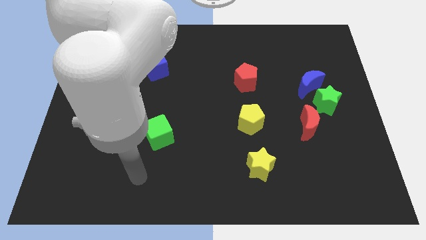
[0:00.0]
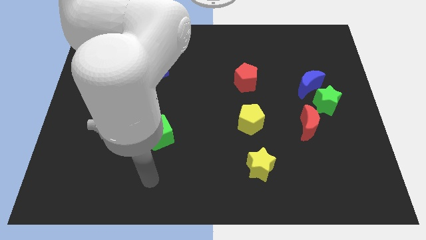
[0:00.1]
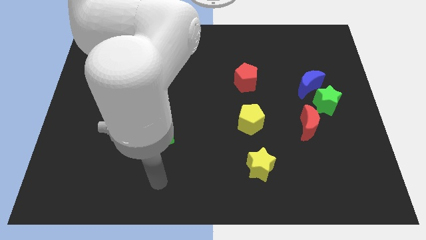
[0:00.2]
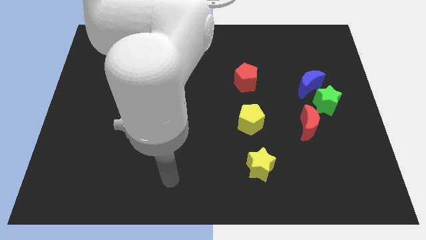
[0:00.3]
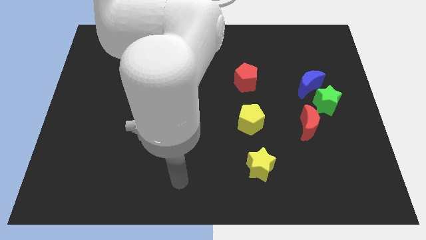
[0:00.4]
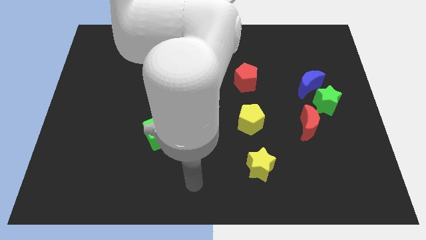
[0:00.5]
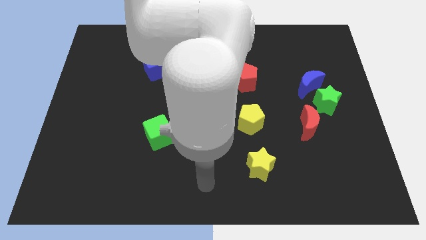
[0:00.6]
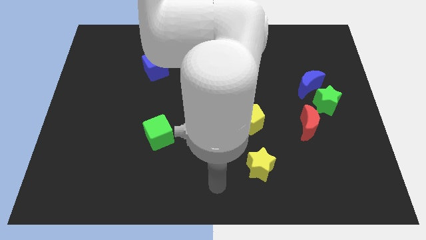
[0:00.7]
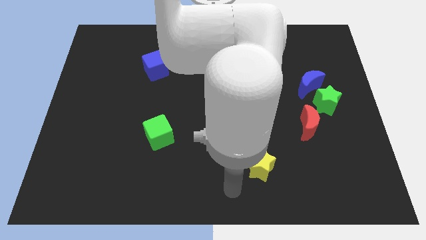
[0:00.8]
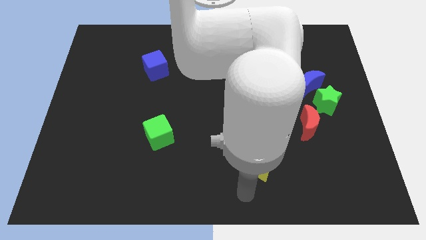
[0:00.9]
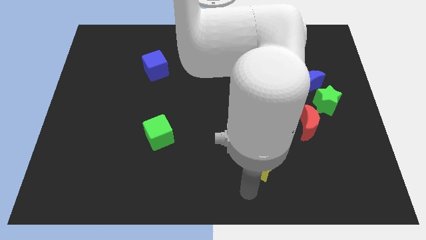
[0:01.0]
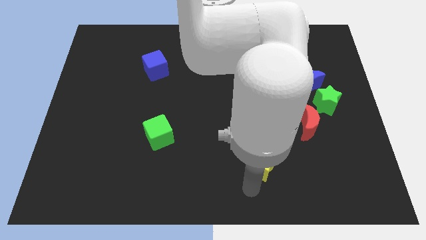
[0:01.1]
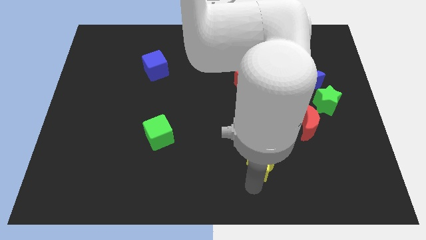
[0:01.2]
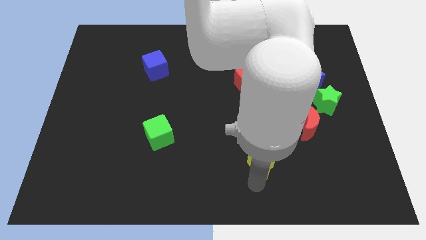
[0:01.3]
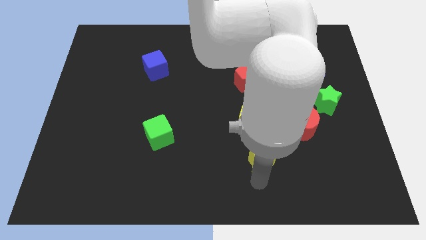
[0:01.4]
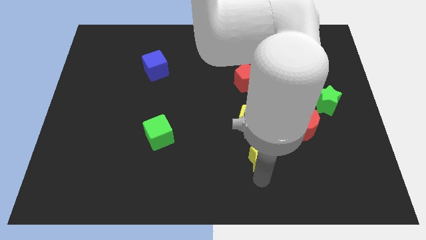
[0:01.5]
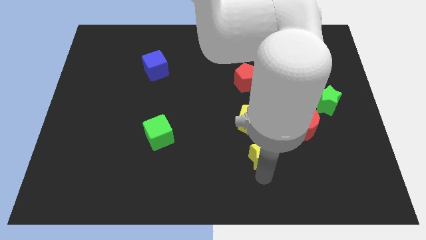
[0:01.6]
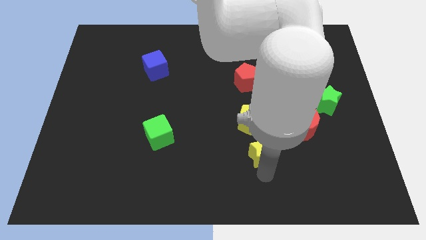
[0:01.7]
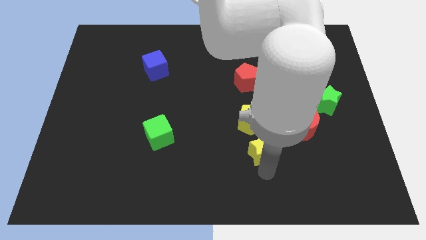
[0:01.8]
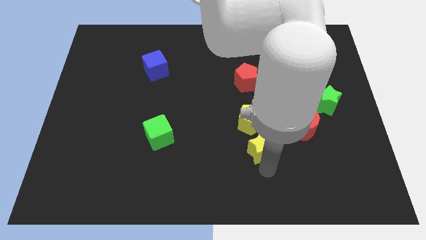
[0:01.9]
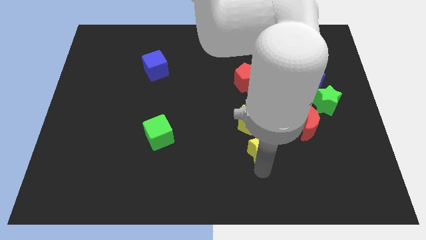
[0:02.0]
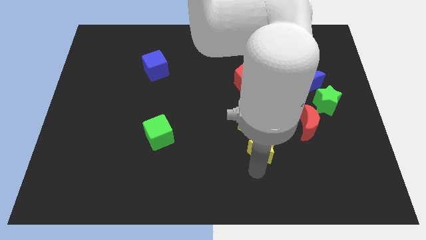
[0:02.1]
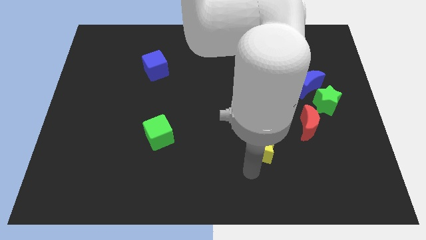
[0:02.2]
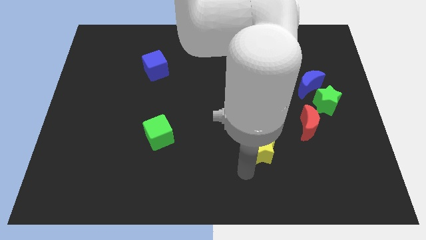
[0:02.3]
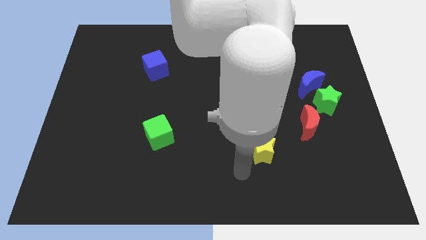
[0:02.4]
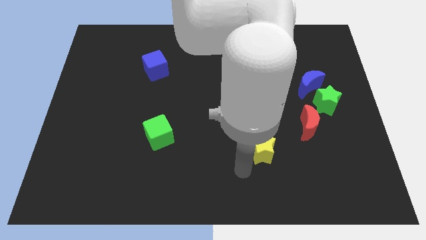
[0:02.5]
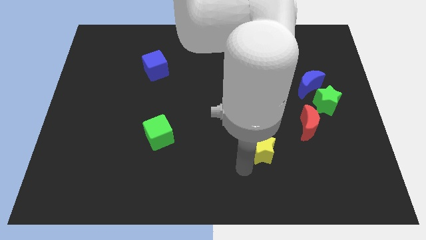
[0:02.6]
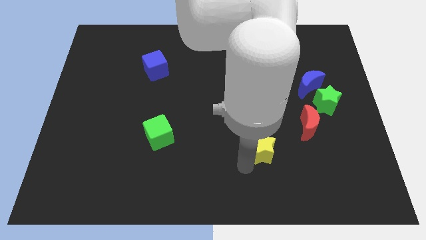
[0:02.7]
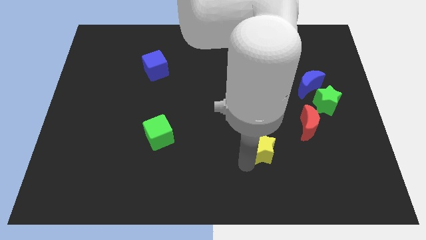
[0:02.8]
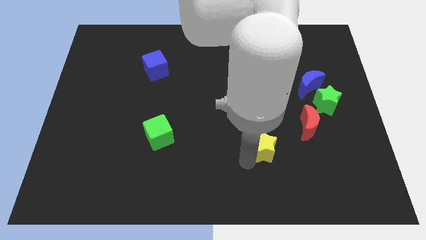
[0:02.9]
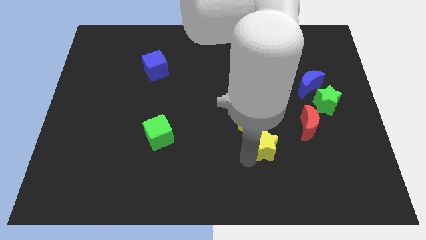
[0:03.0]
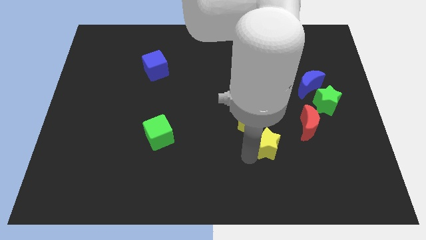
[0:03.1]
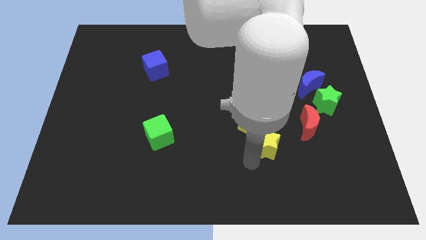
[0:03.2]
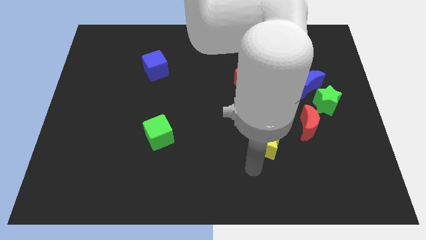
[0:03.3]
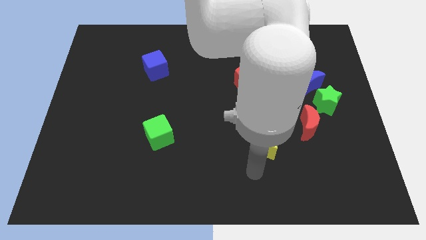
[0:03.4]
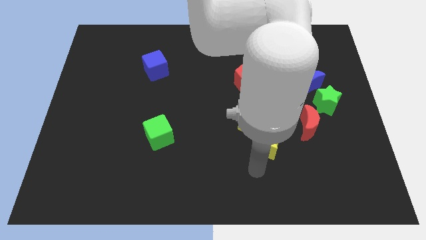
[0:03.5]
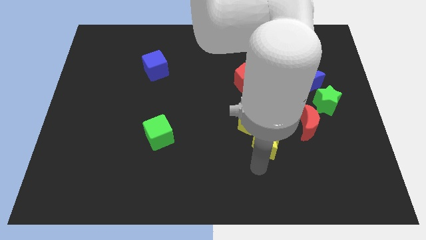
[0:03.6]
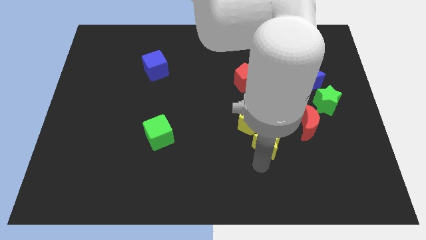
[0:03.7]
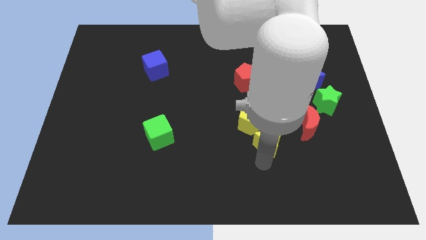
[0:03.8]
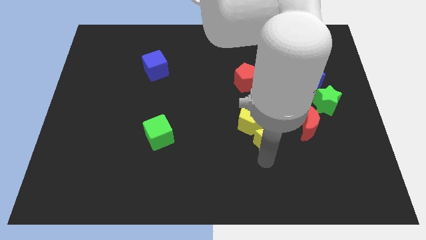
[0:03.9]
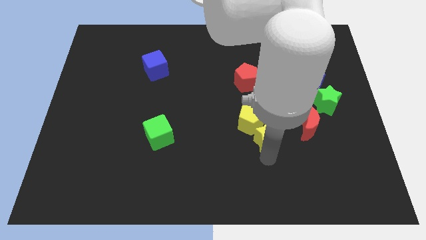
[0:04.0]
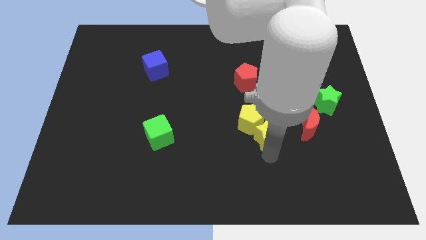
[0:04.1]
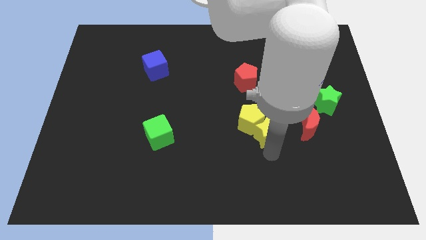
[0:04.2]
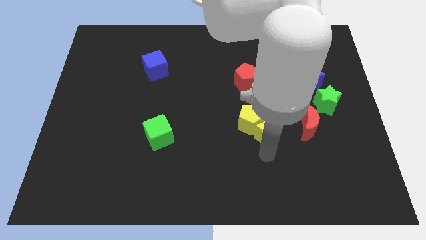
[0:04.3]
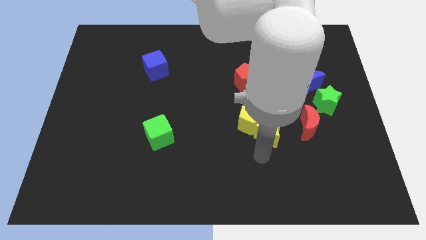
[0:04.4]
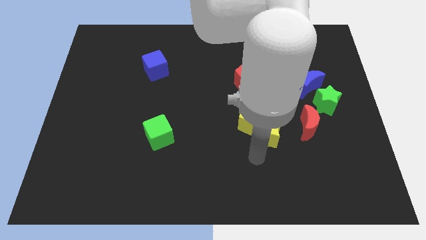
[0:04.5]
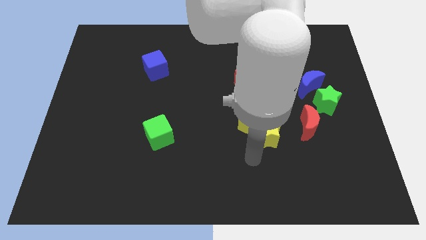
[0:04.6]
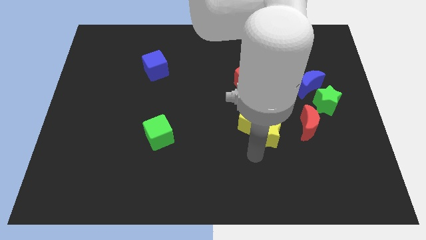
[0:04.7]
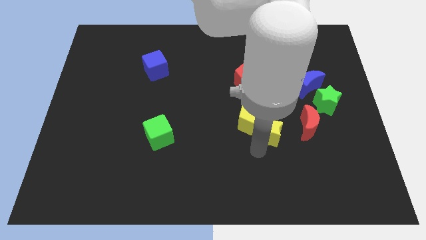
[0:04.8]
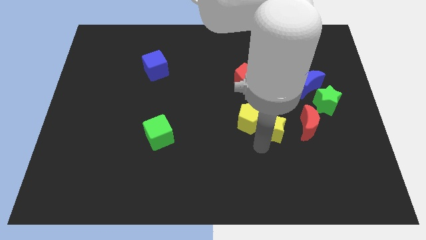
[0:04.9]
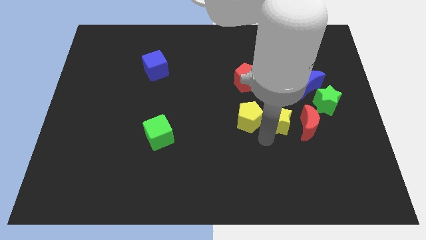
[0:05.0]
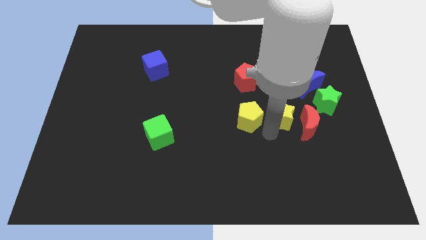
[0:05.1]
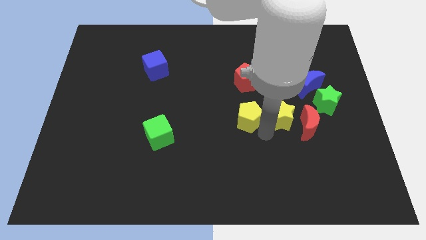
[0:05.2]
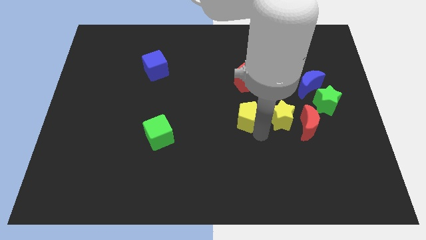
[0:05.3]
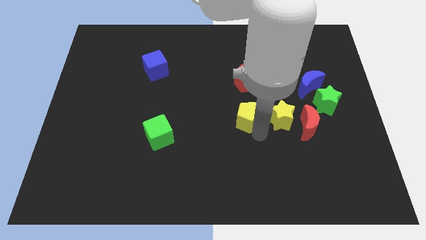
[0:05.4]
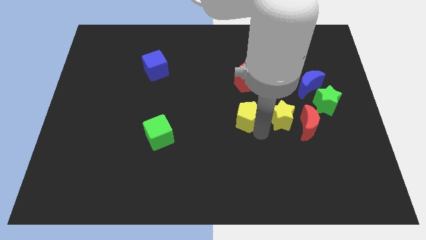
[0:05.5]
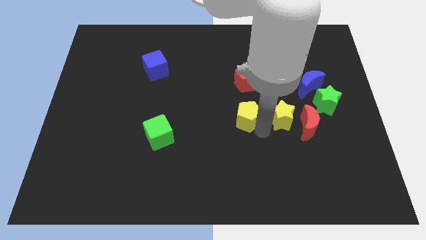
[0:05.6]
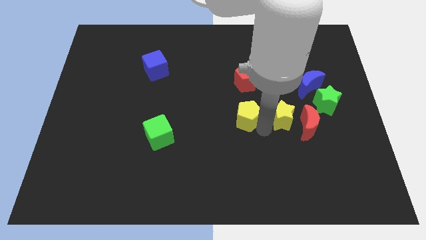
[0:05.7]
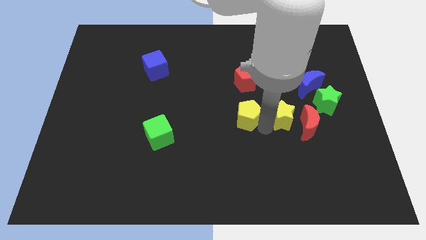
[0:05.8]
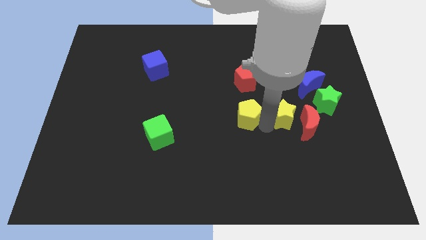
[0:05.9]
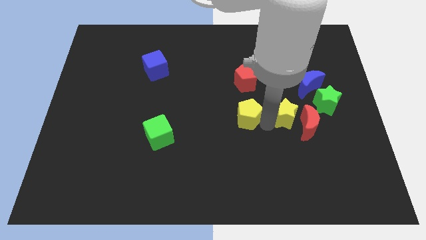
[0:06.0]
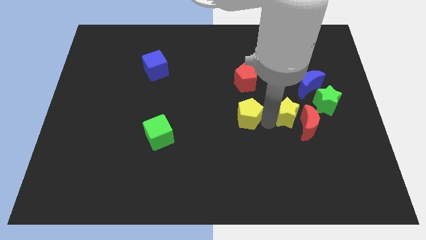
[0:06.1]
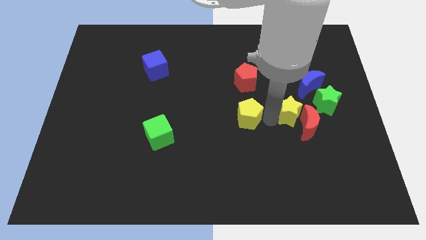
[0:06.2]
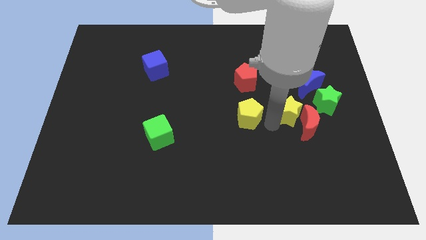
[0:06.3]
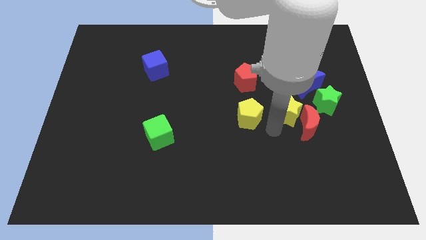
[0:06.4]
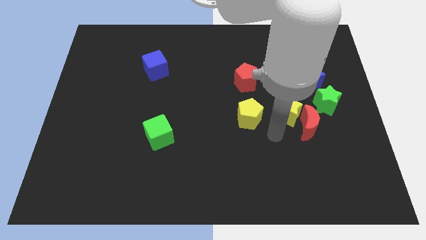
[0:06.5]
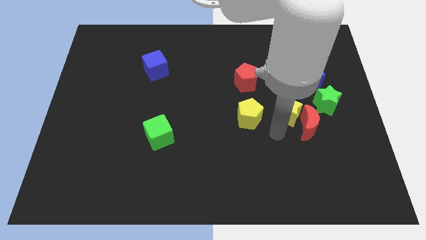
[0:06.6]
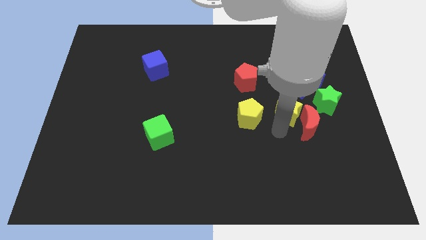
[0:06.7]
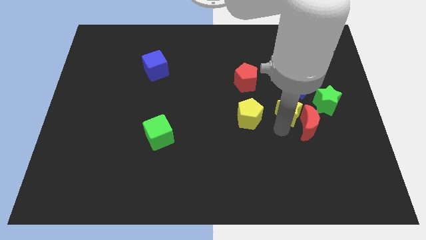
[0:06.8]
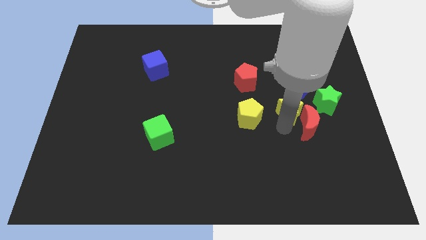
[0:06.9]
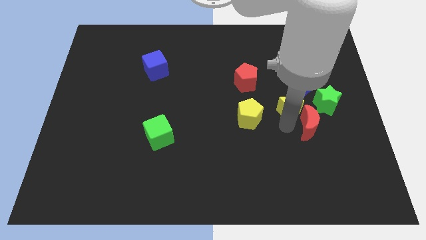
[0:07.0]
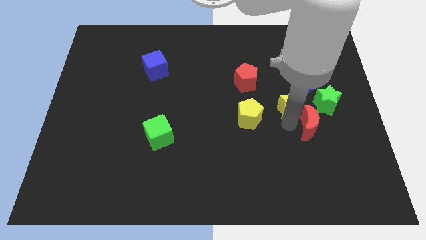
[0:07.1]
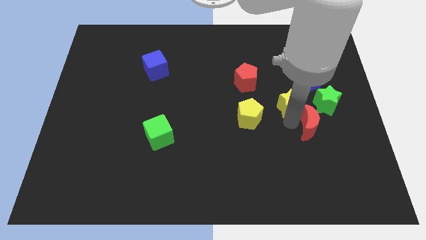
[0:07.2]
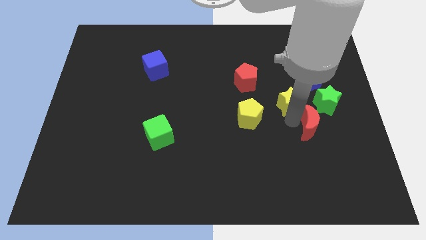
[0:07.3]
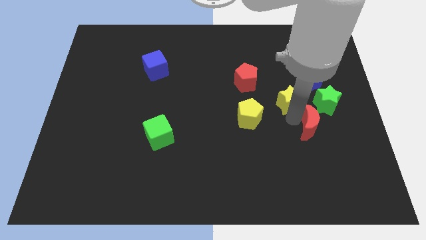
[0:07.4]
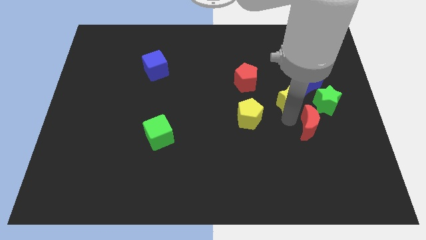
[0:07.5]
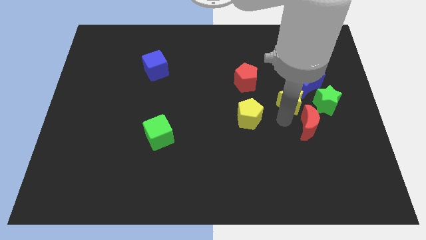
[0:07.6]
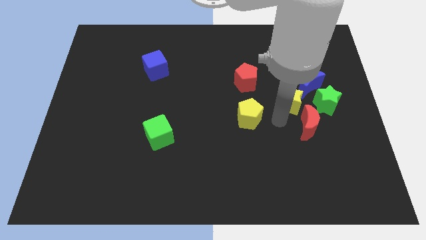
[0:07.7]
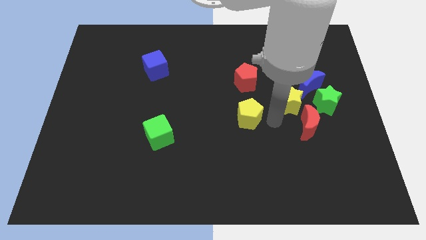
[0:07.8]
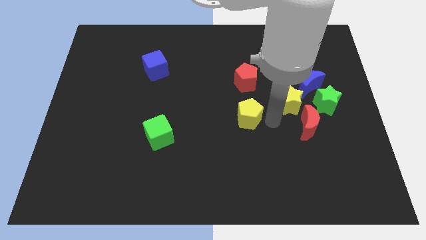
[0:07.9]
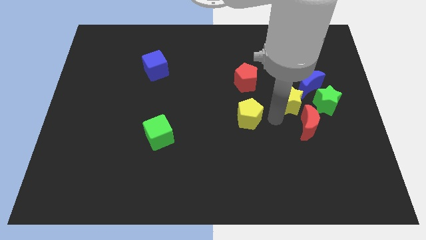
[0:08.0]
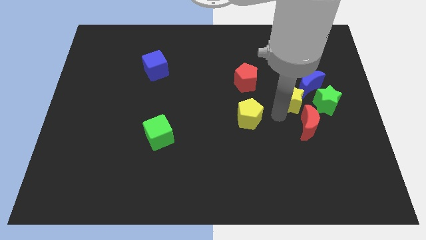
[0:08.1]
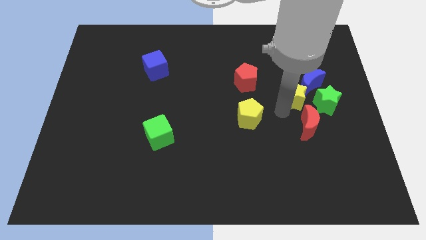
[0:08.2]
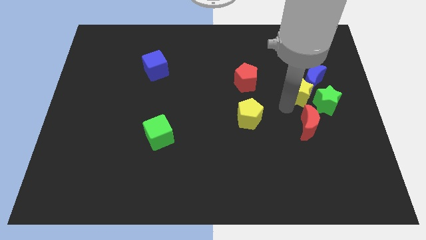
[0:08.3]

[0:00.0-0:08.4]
put the yellow star to the blue moon
